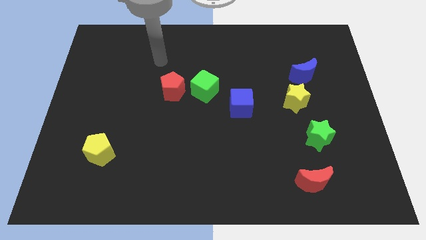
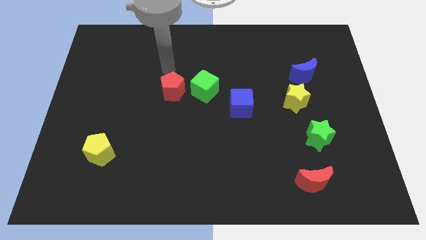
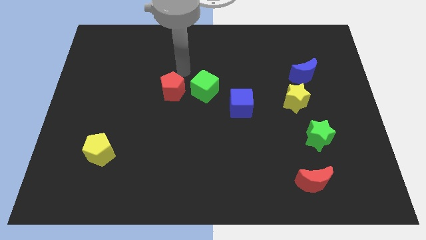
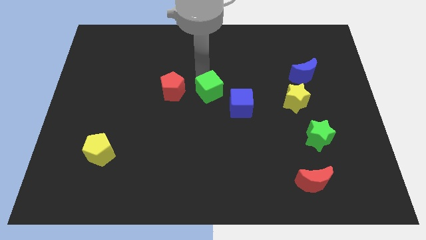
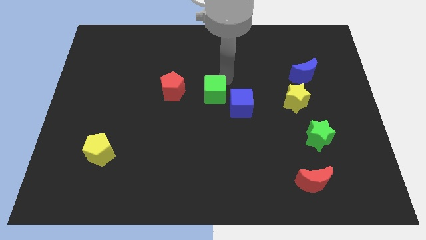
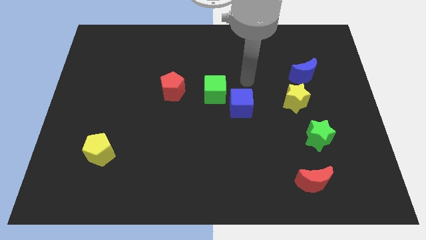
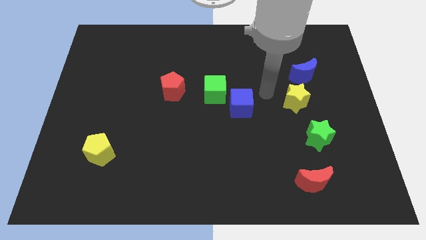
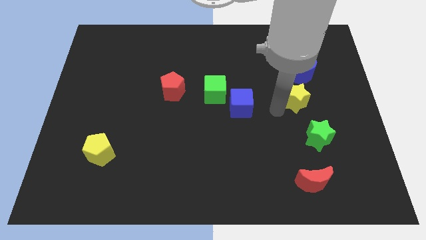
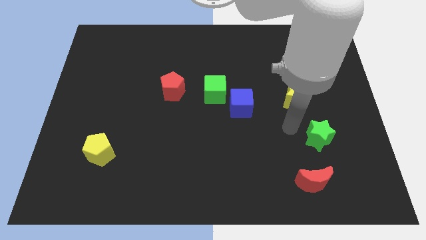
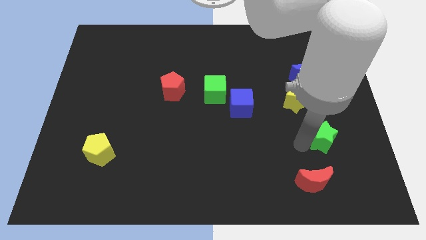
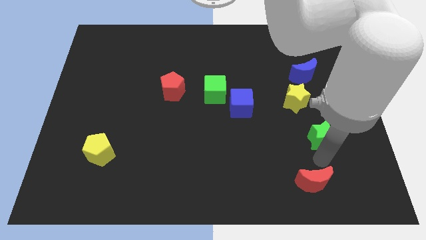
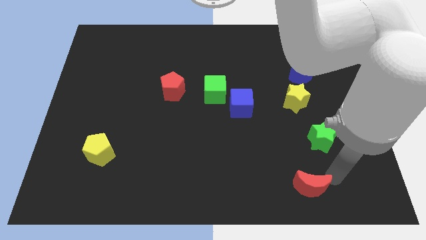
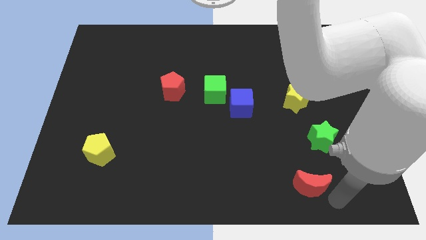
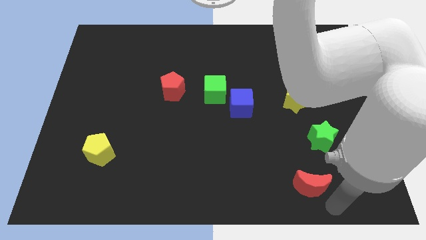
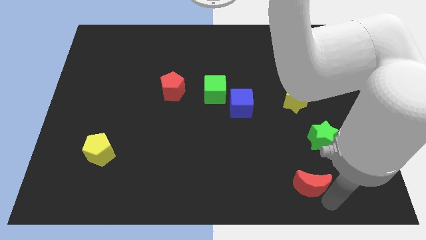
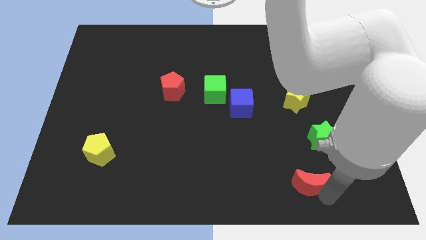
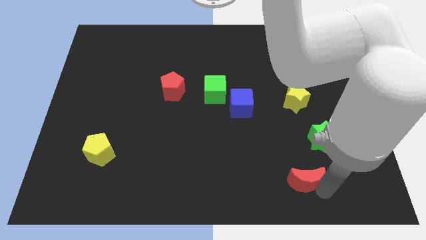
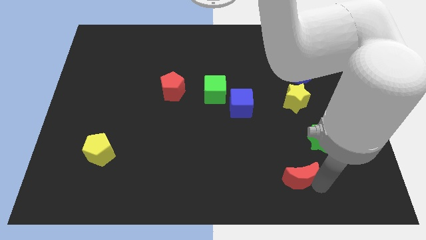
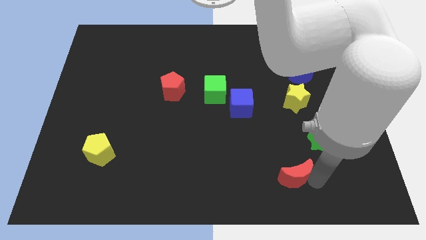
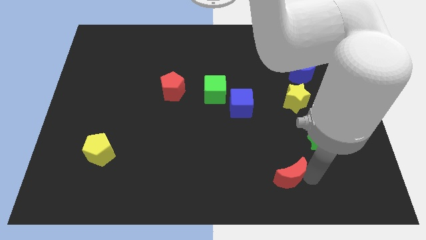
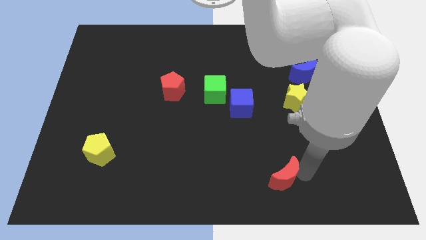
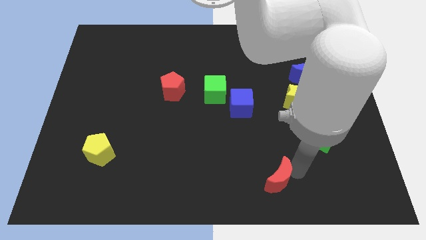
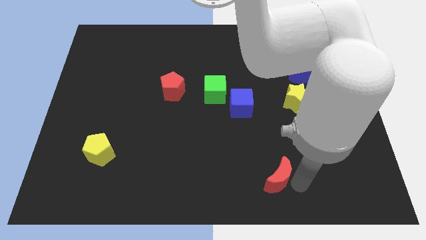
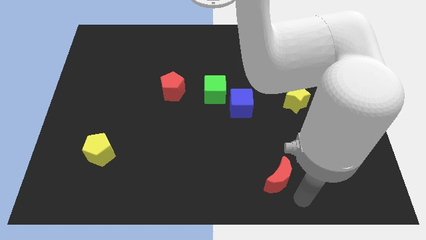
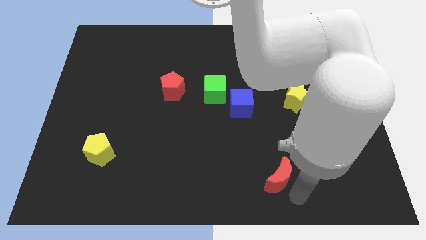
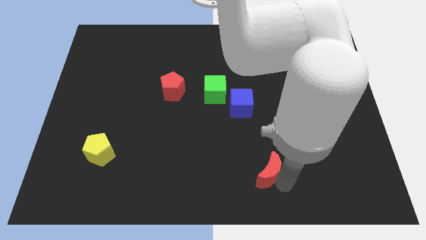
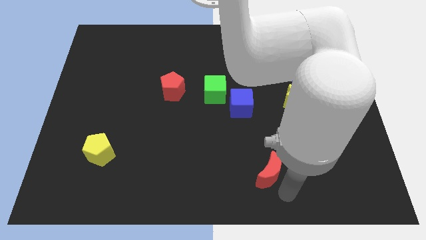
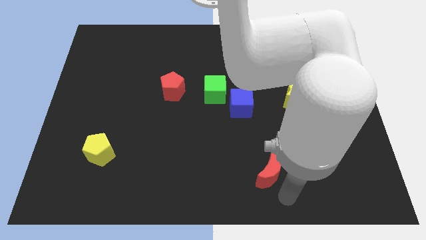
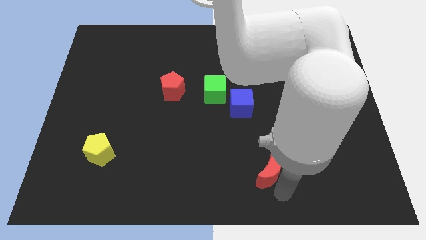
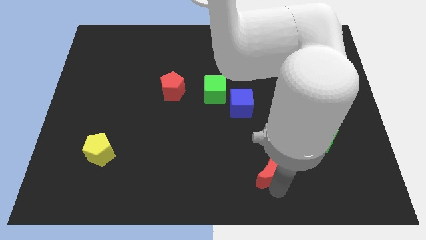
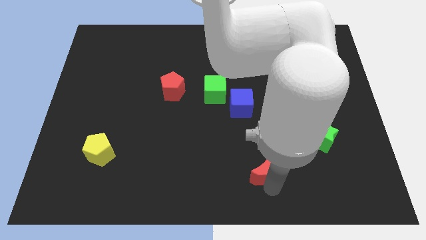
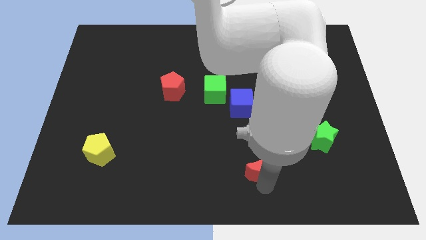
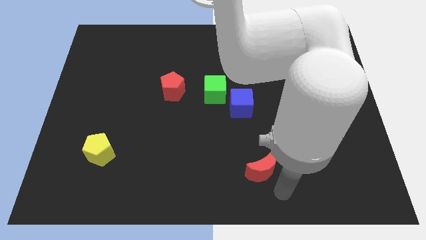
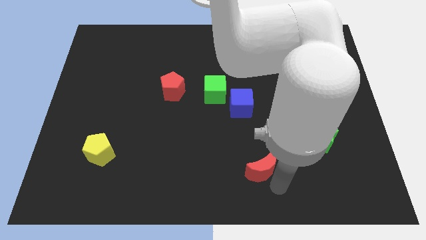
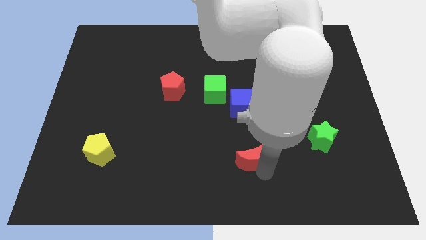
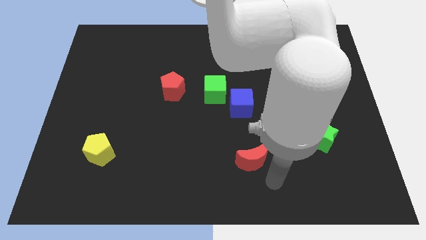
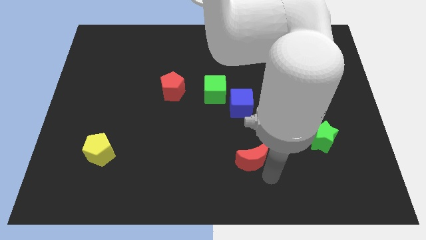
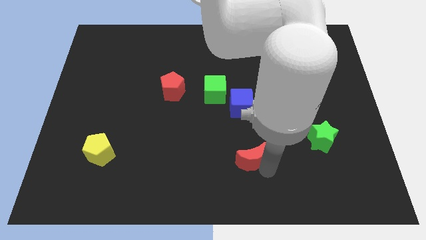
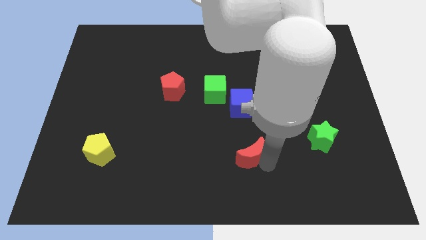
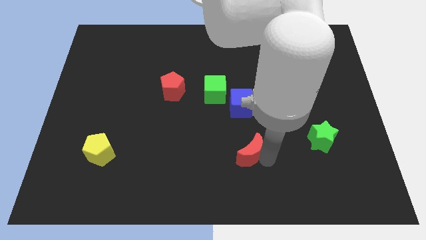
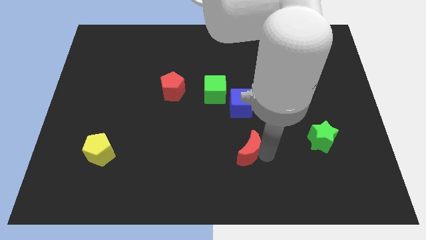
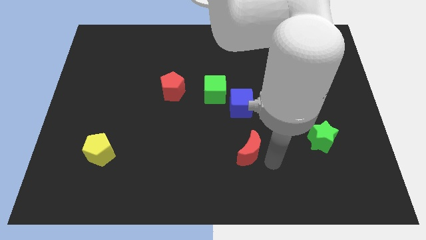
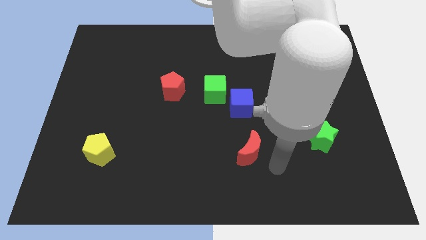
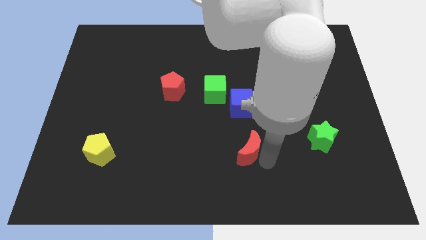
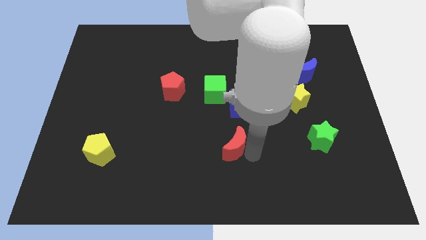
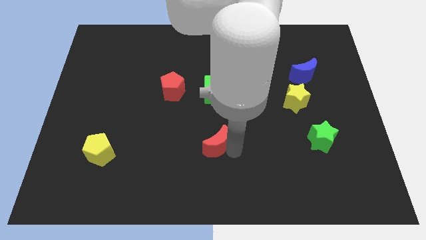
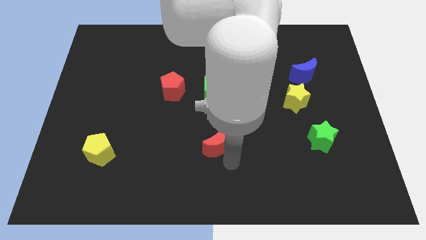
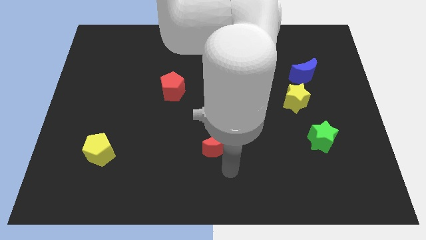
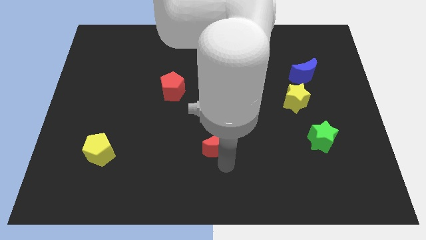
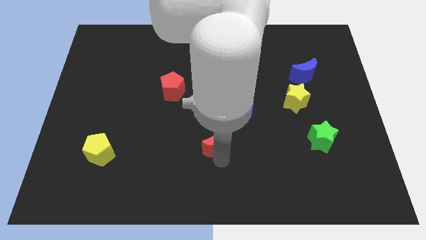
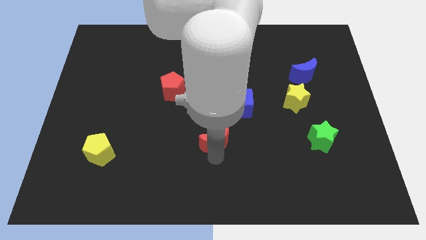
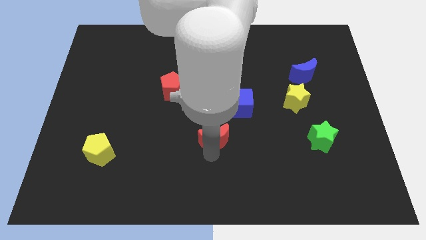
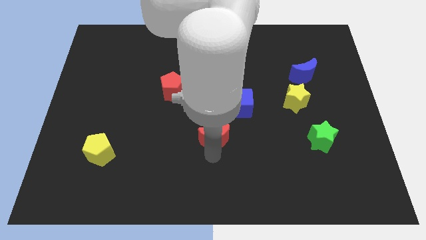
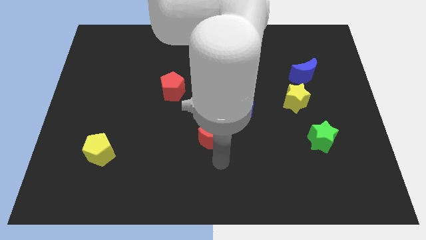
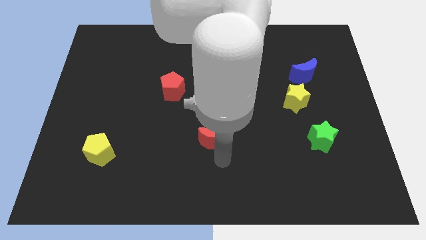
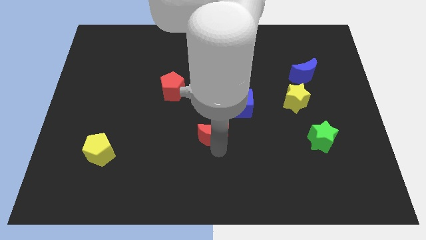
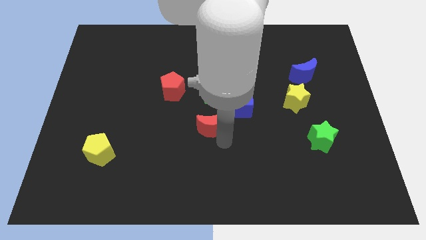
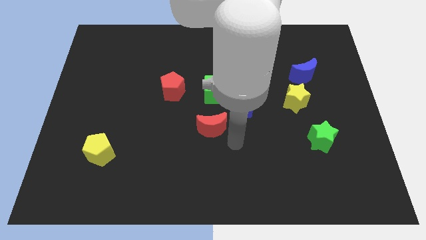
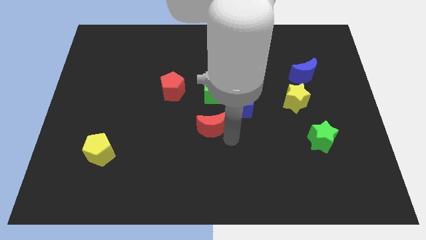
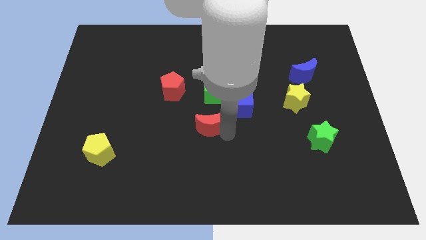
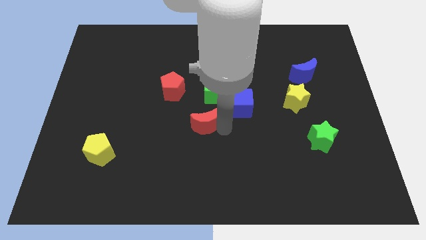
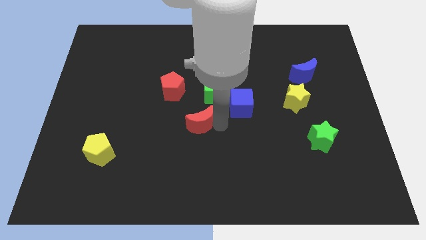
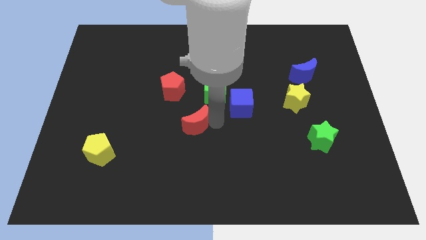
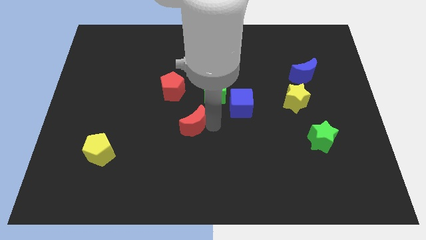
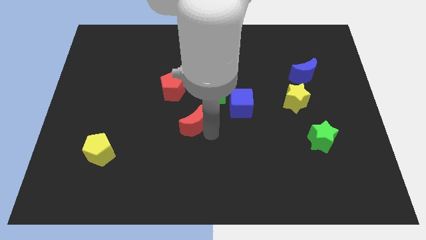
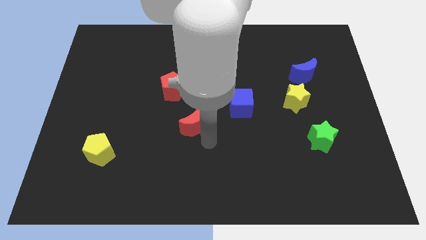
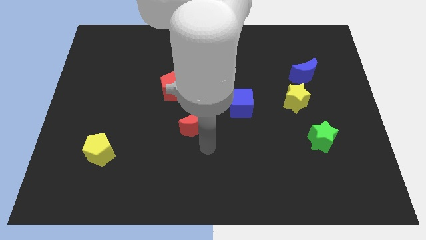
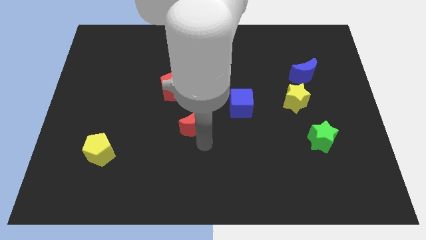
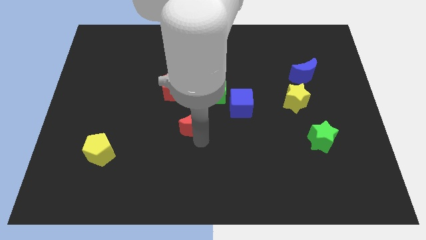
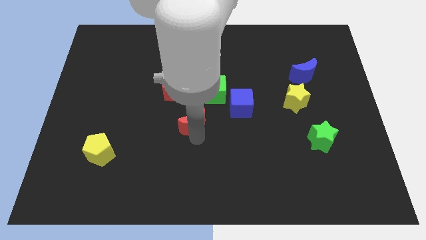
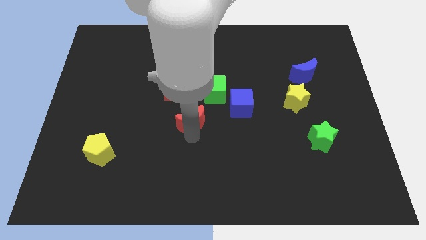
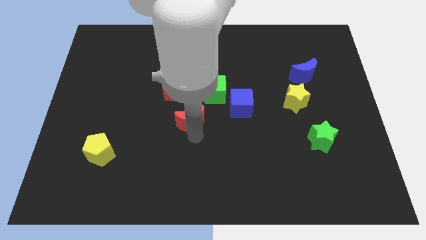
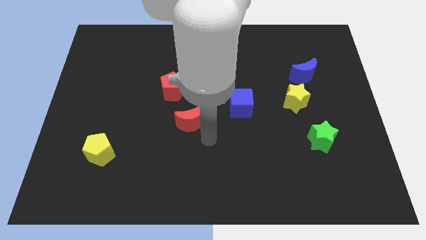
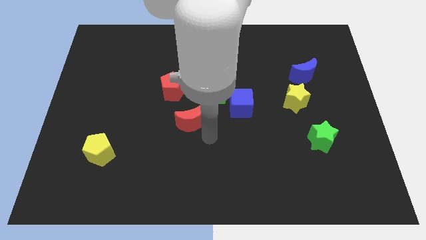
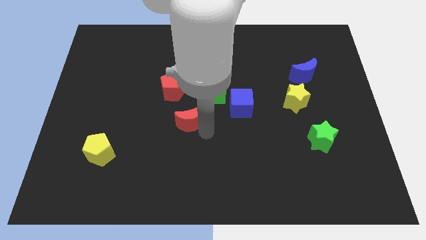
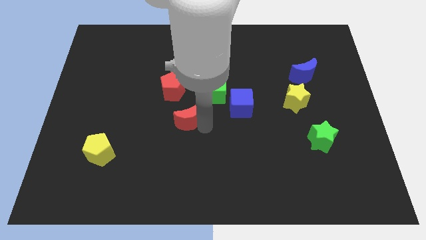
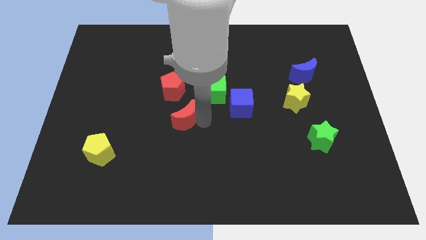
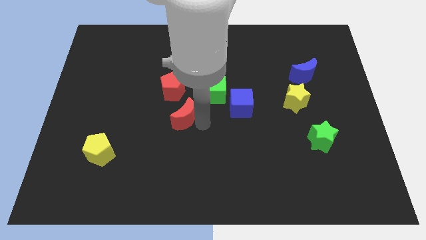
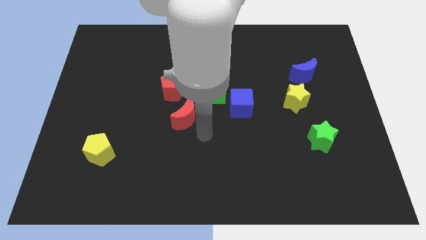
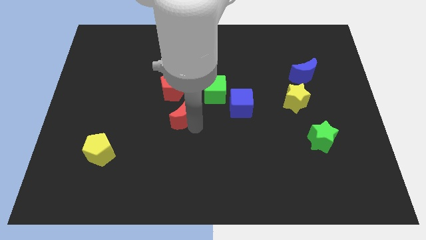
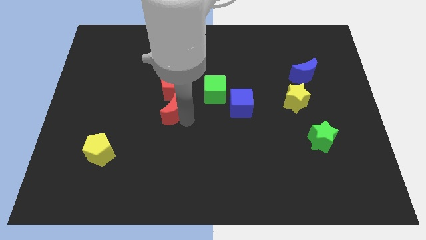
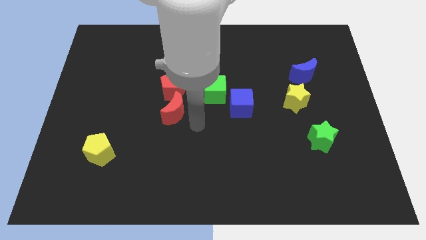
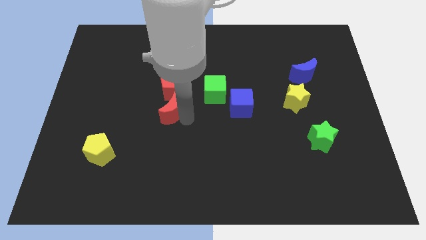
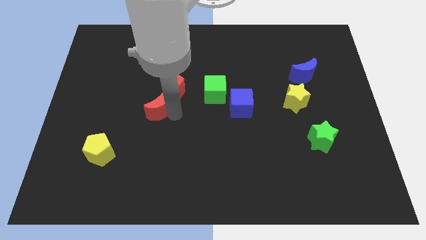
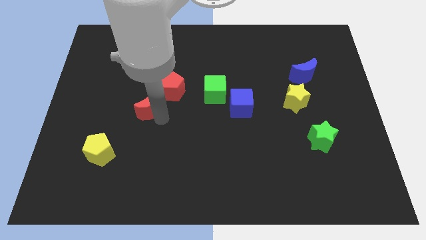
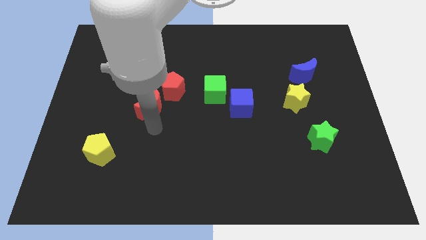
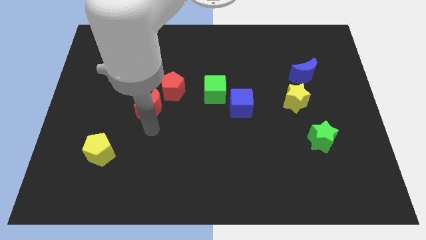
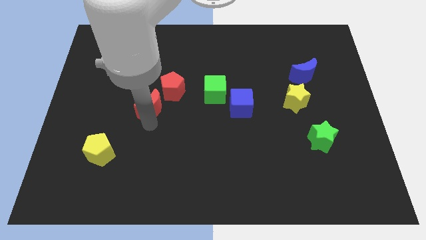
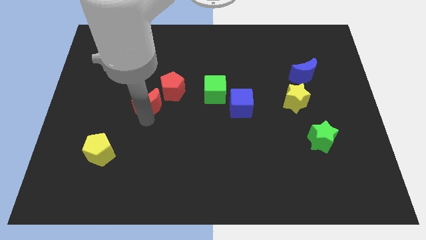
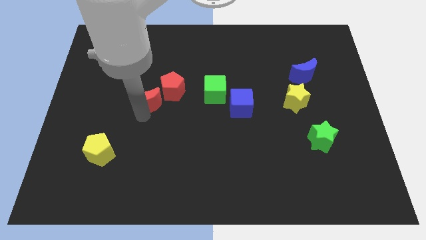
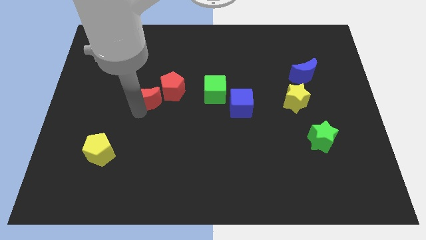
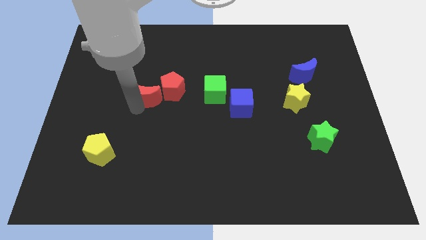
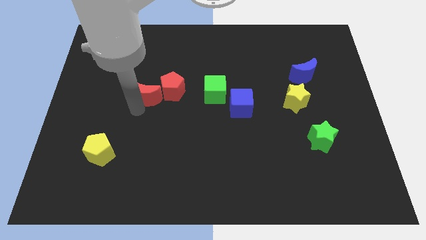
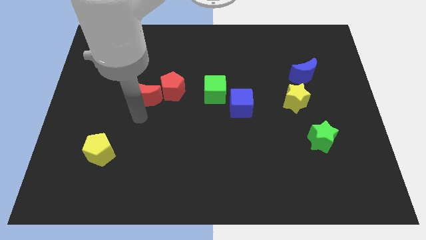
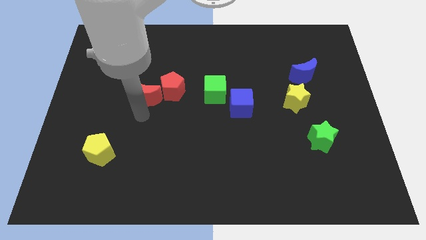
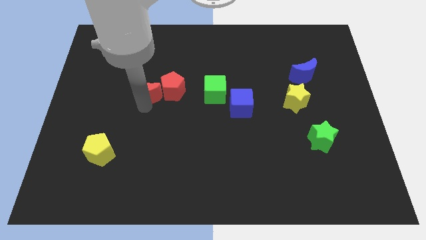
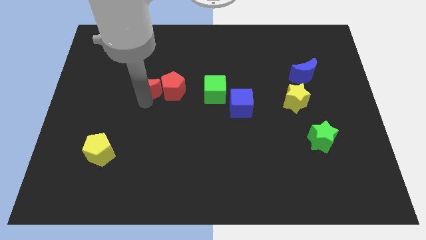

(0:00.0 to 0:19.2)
push the red moon to the top left side of the red pentagon
